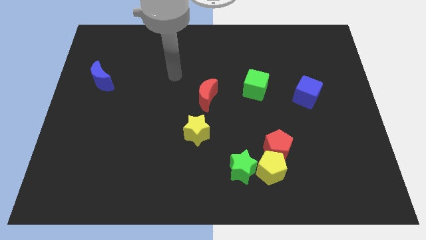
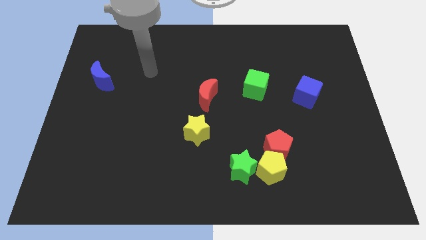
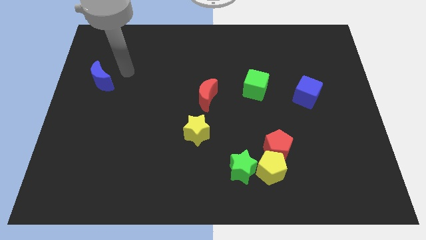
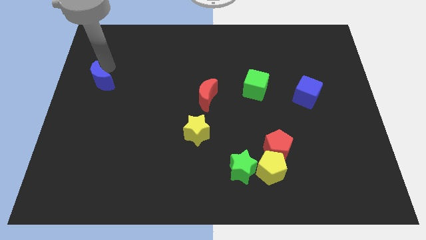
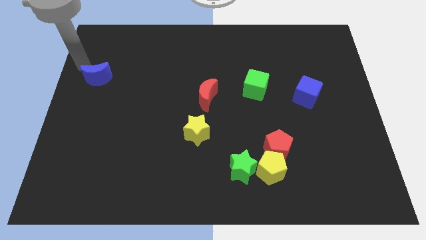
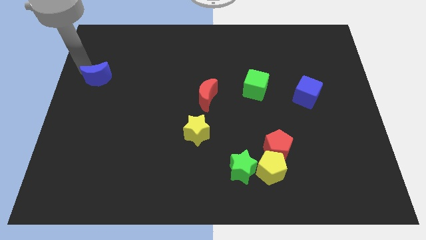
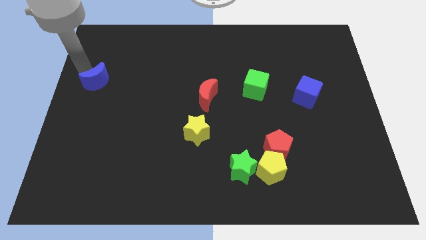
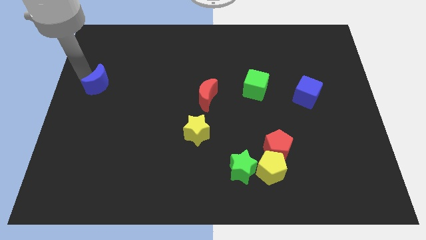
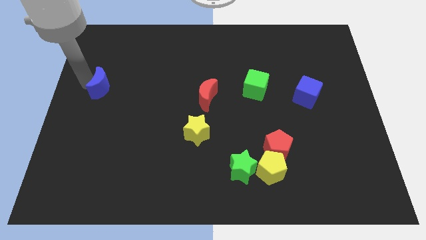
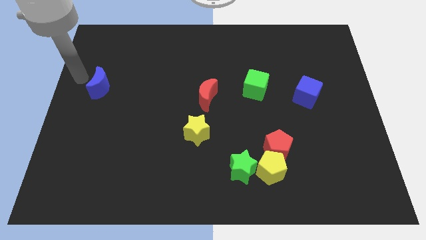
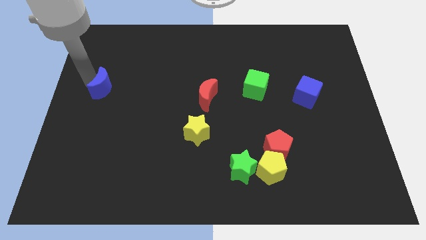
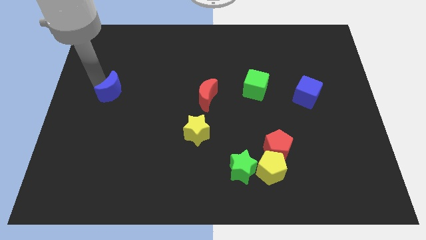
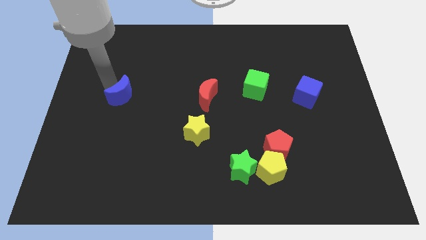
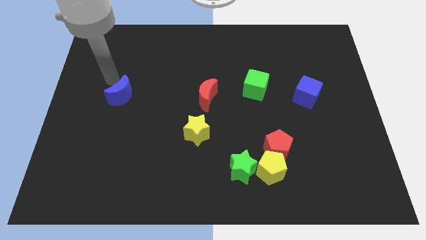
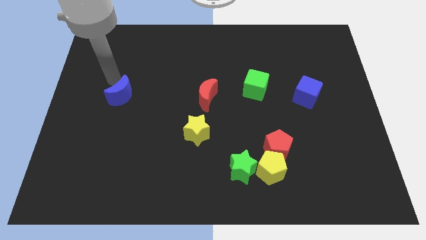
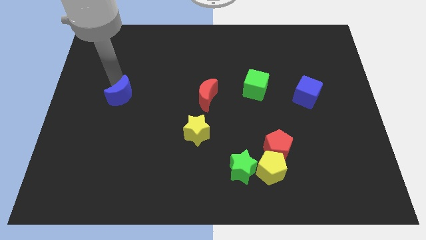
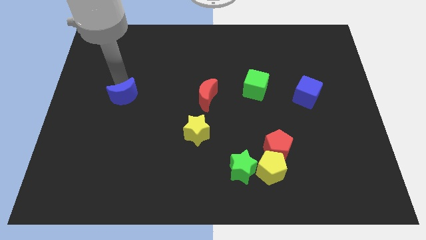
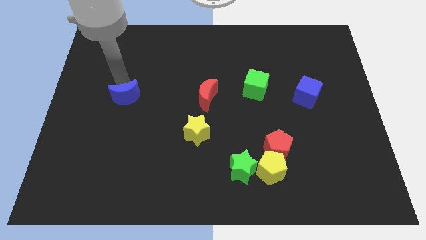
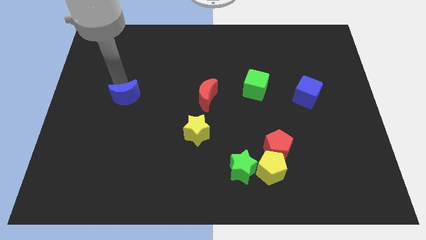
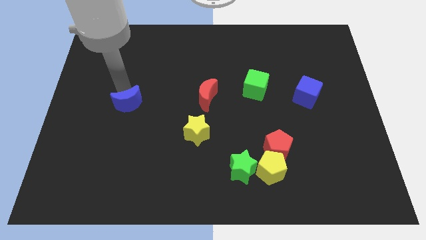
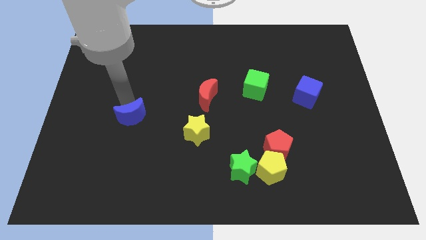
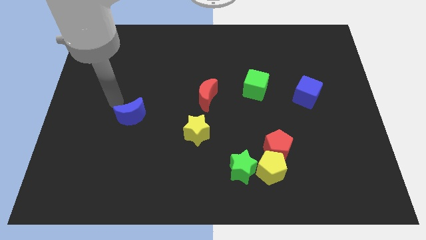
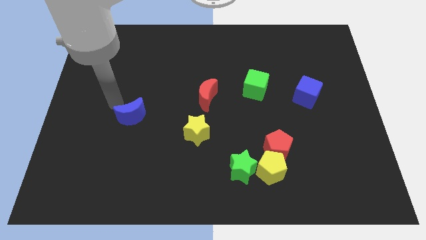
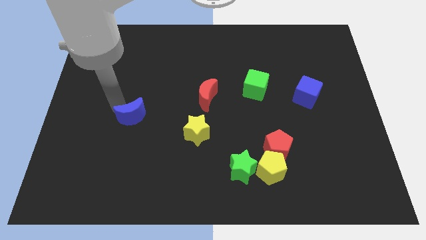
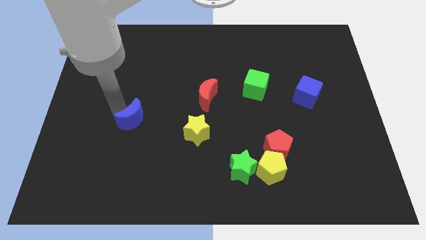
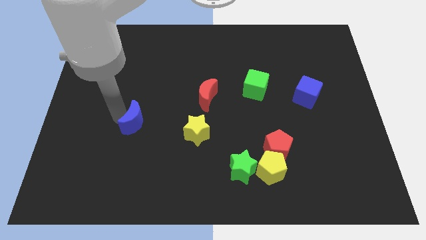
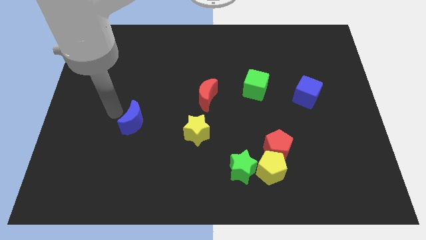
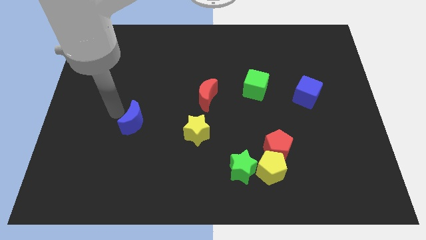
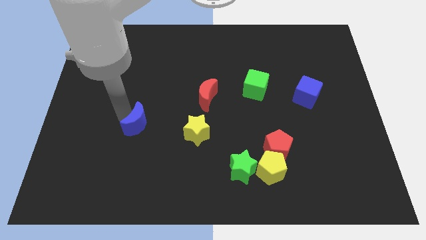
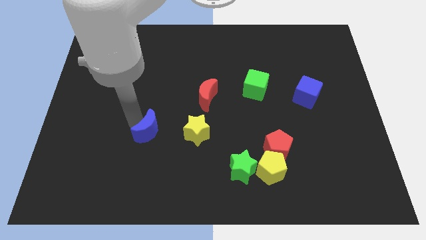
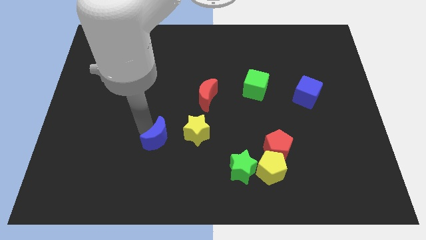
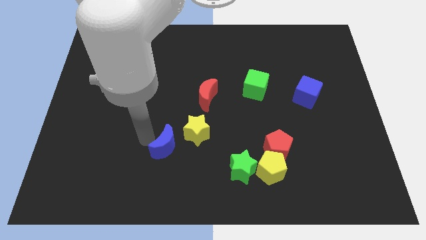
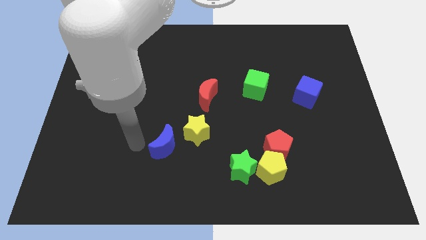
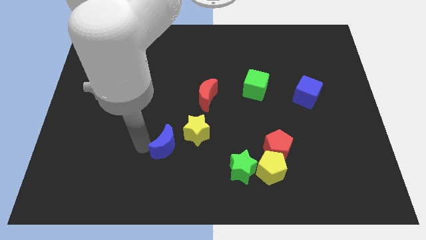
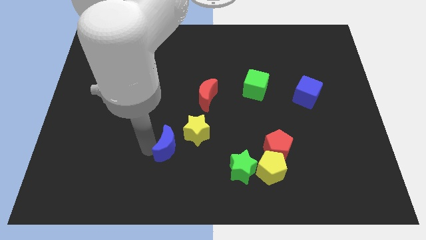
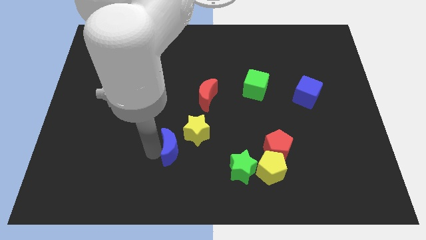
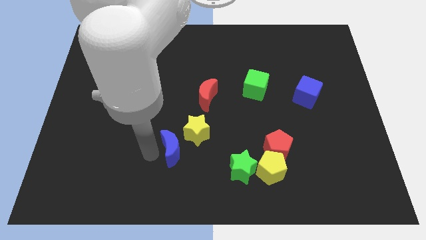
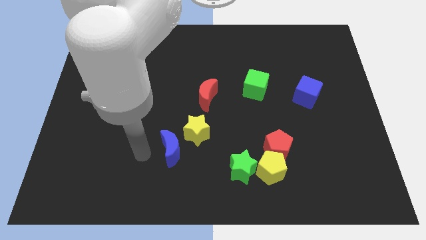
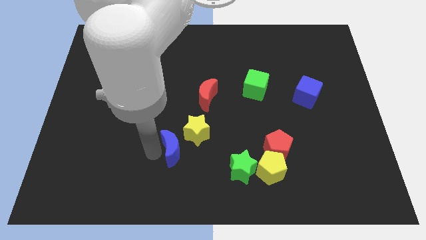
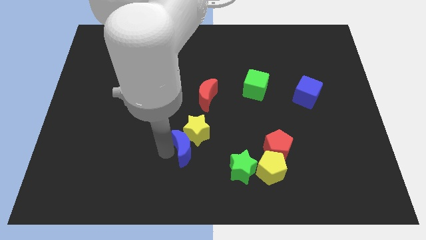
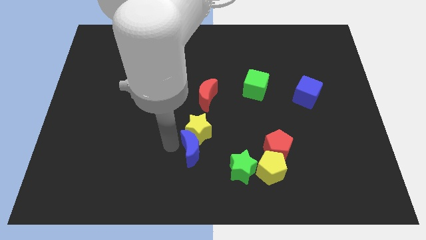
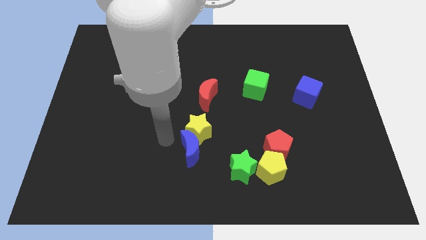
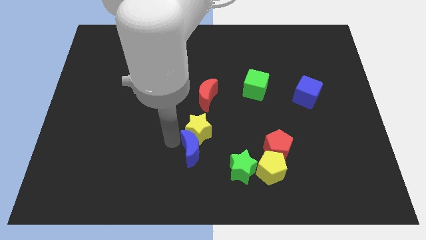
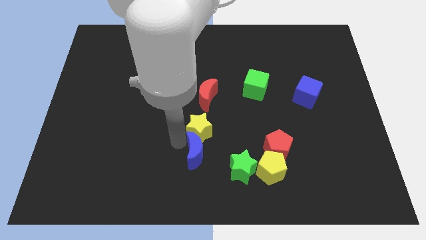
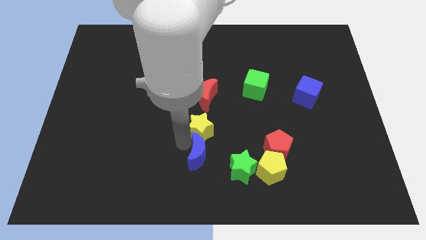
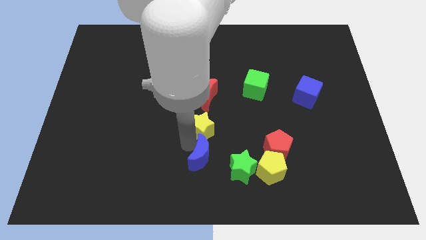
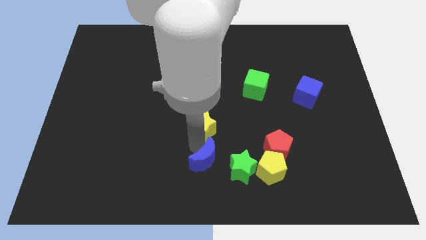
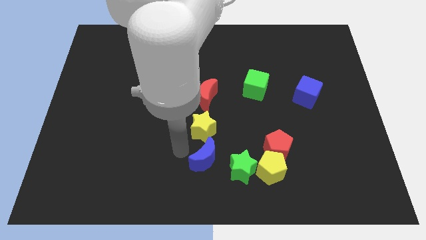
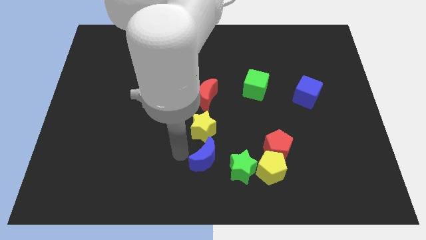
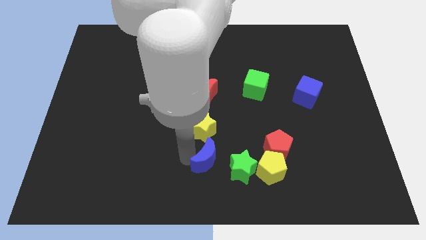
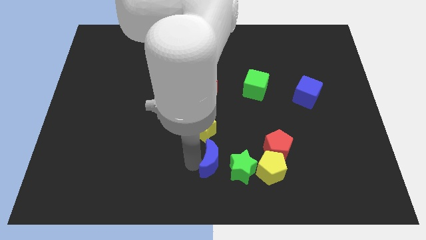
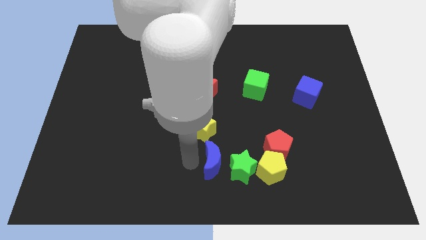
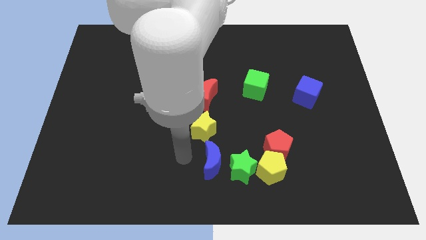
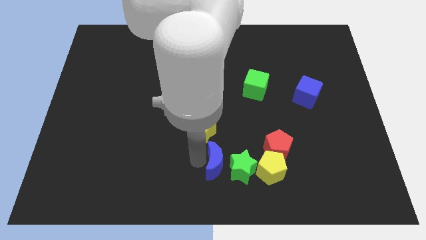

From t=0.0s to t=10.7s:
put the blue moon towards the green star

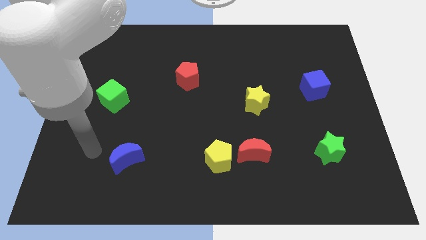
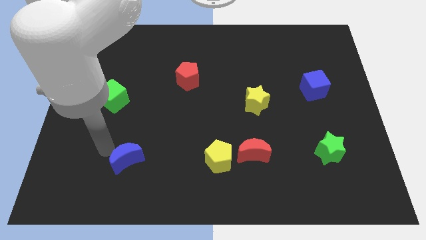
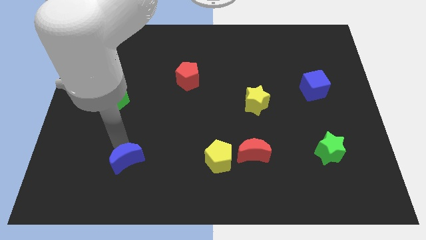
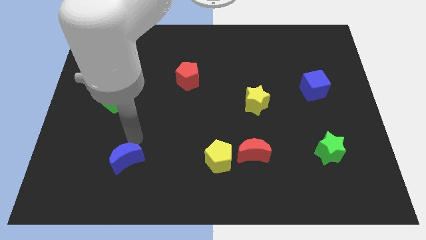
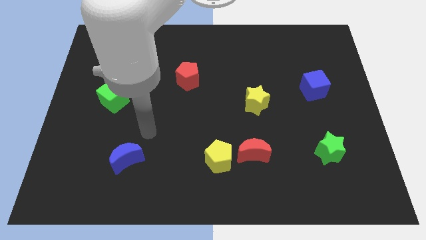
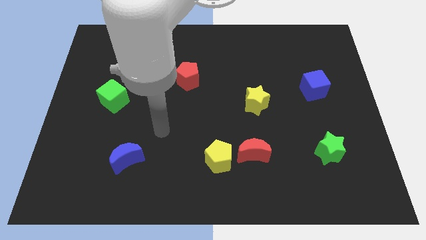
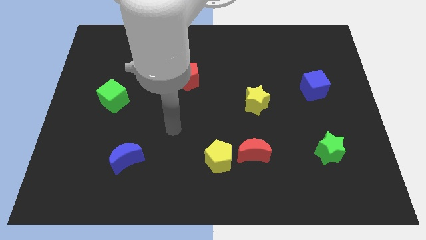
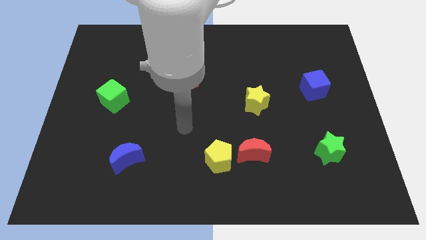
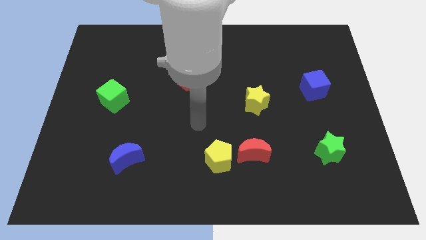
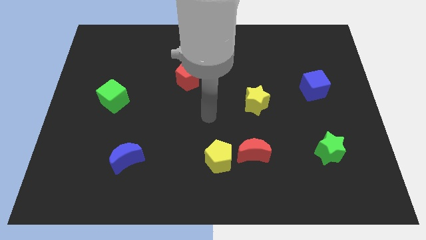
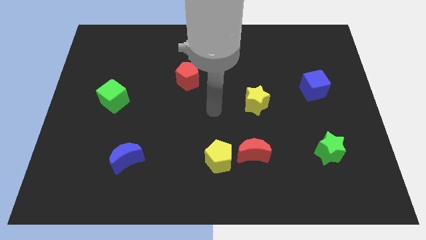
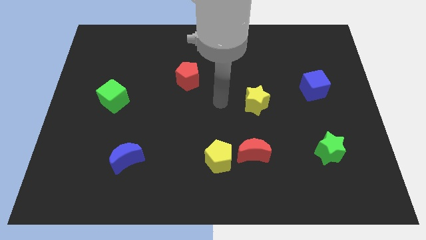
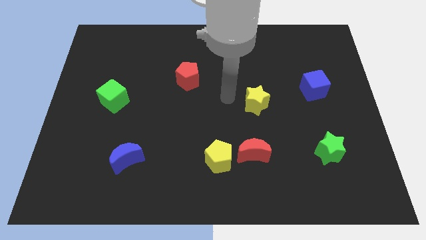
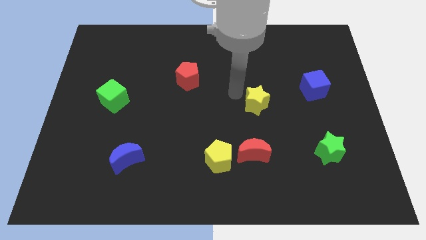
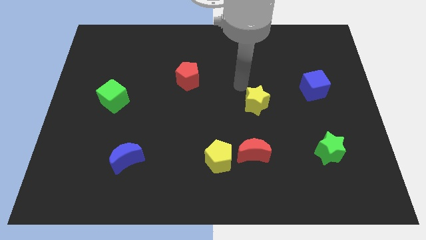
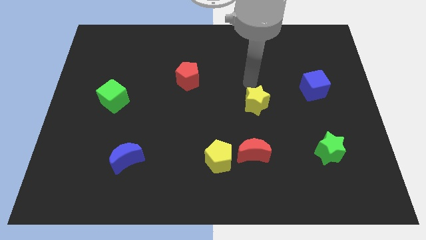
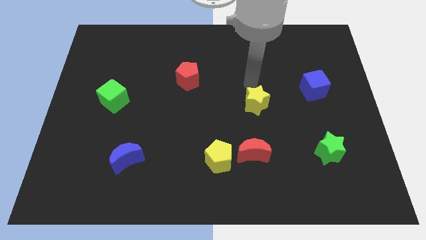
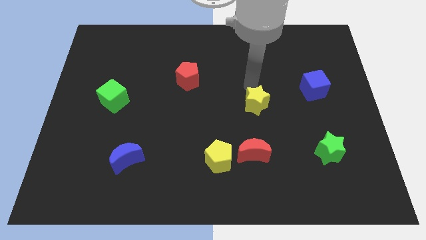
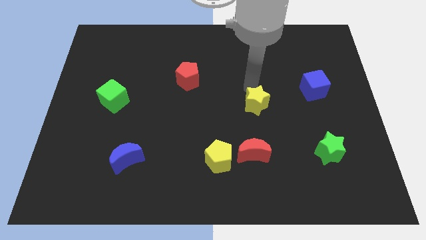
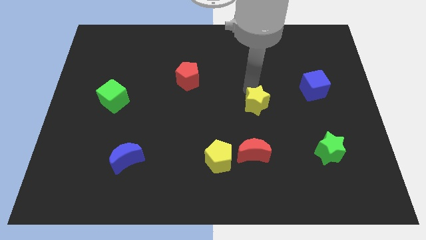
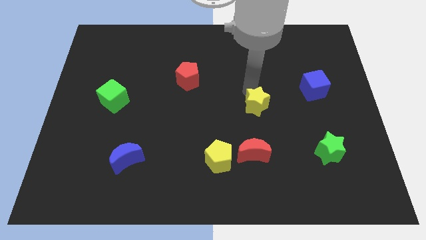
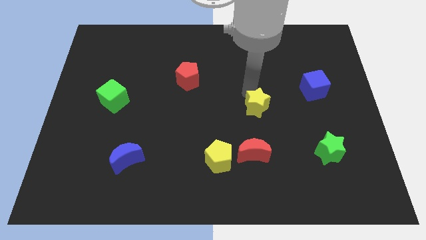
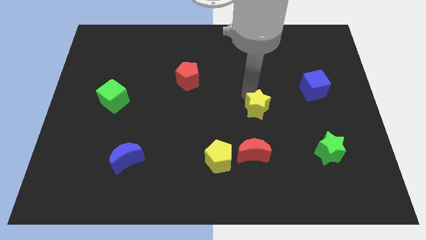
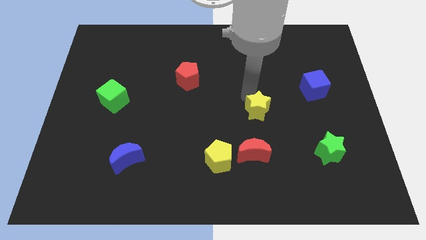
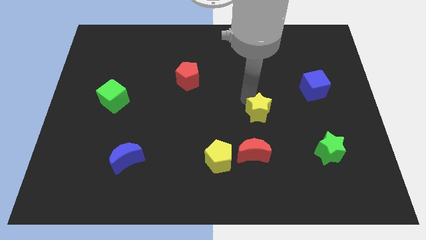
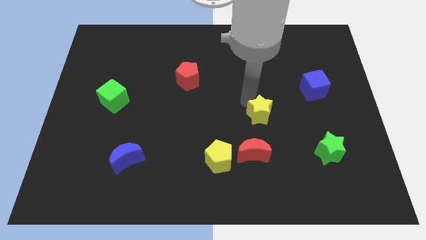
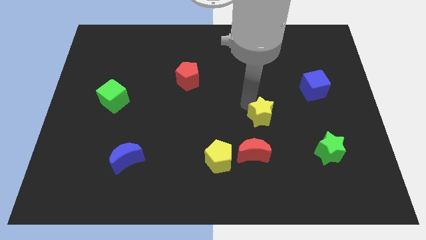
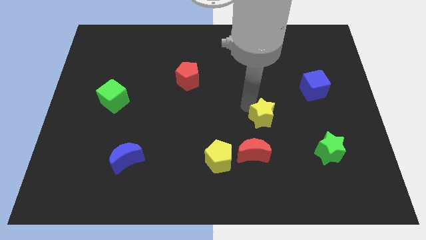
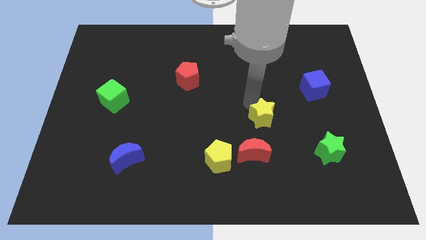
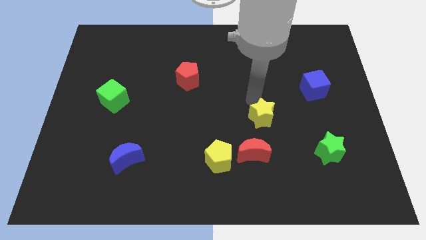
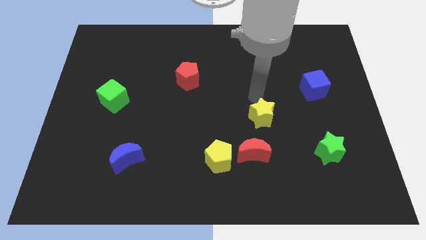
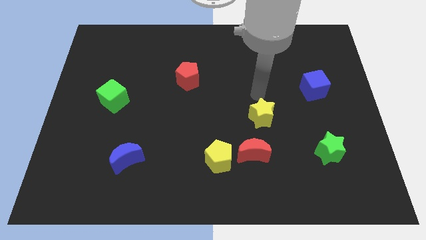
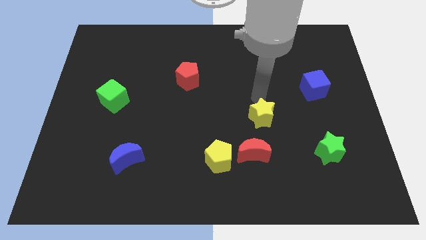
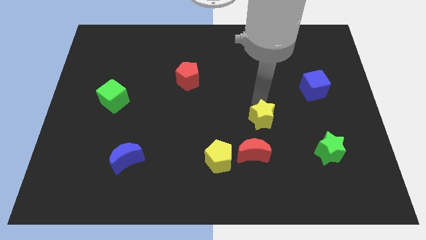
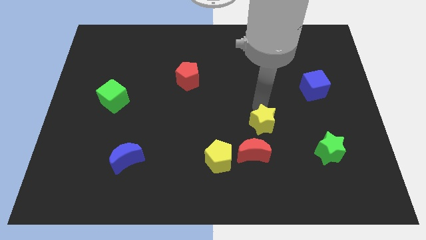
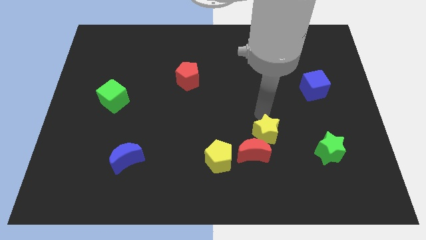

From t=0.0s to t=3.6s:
push the yellow star towards the red moon
